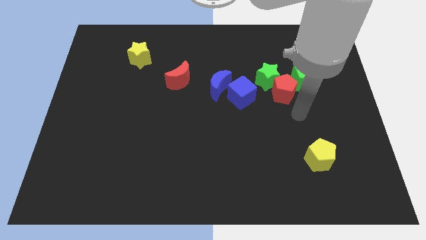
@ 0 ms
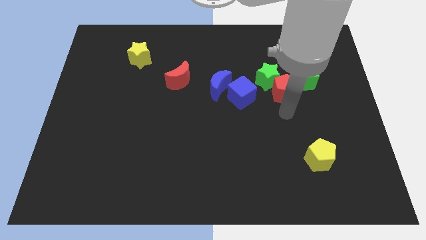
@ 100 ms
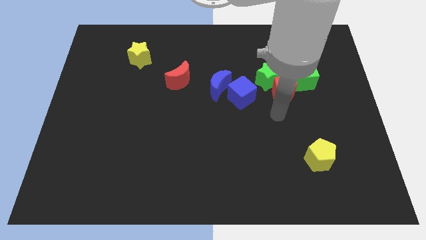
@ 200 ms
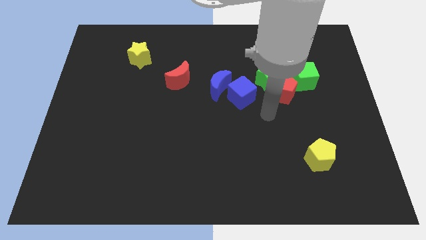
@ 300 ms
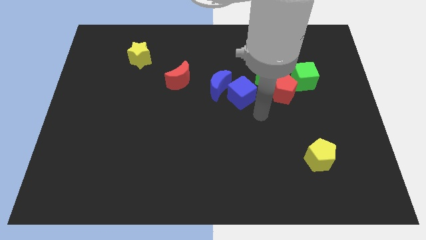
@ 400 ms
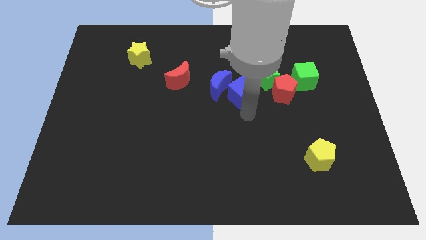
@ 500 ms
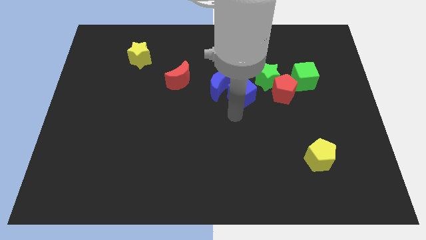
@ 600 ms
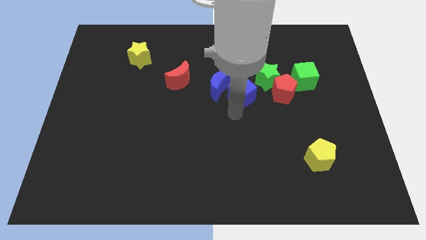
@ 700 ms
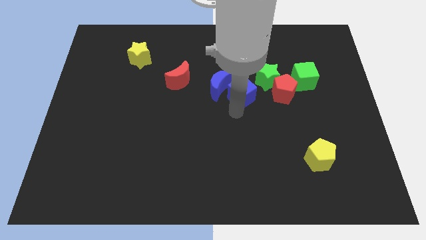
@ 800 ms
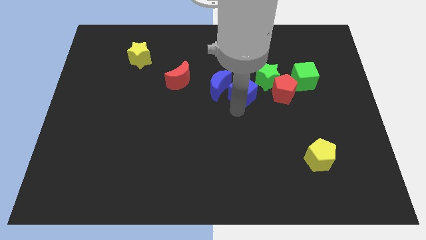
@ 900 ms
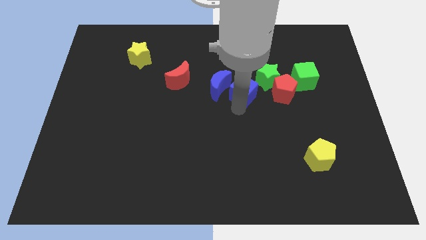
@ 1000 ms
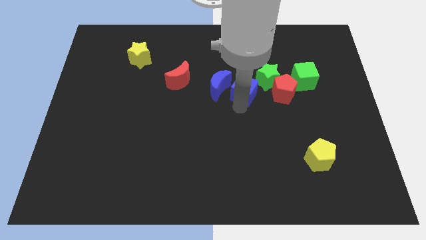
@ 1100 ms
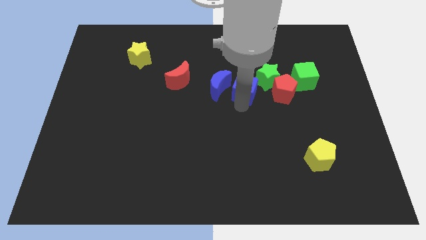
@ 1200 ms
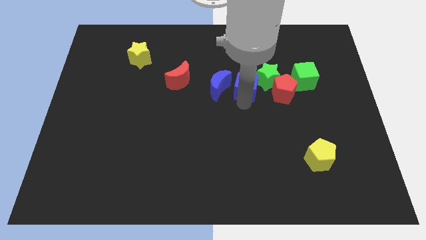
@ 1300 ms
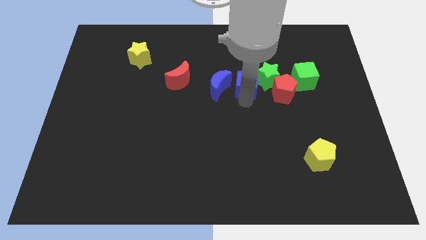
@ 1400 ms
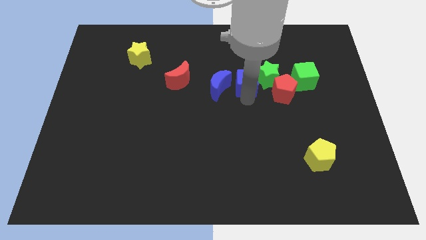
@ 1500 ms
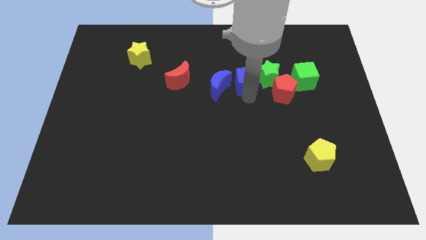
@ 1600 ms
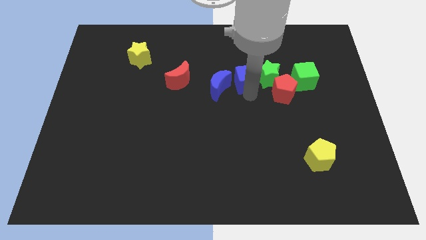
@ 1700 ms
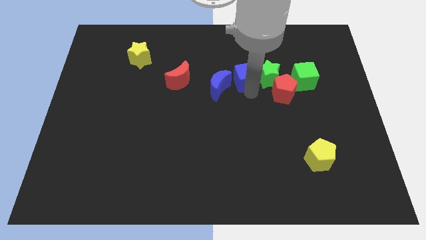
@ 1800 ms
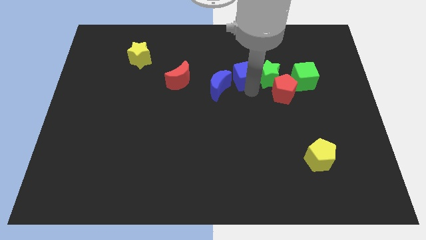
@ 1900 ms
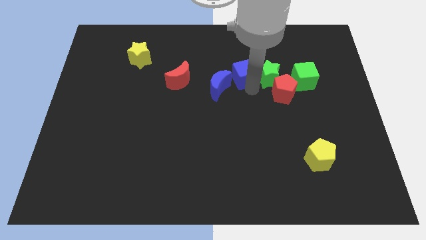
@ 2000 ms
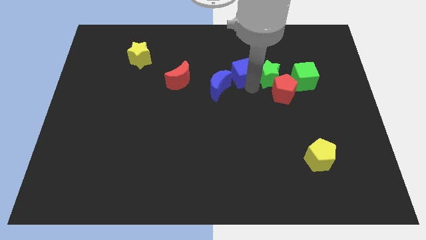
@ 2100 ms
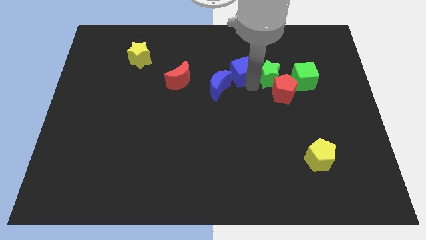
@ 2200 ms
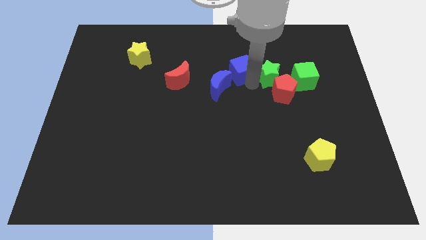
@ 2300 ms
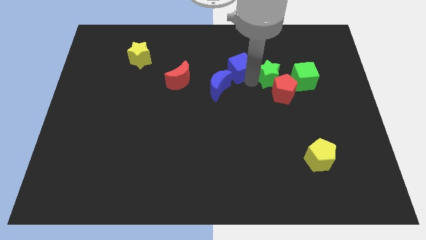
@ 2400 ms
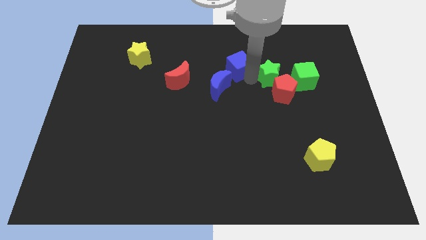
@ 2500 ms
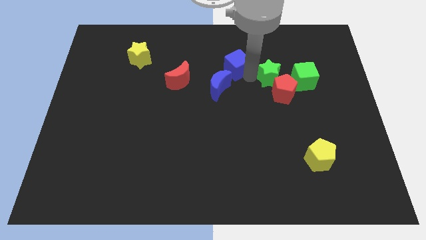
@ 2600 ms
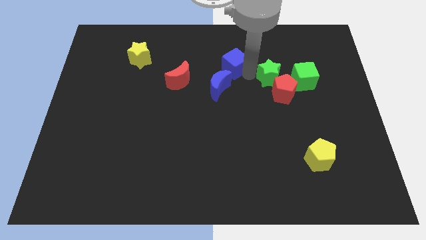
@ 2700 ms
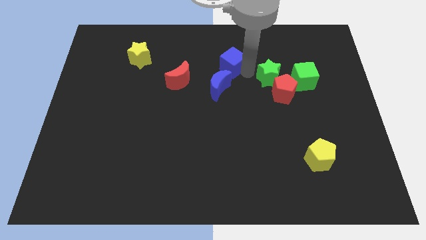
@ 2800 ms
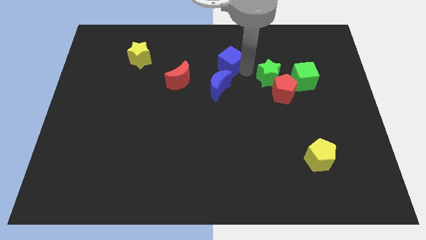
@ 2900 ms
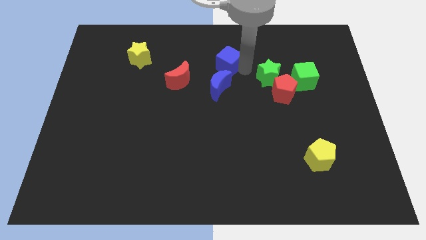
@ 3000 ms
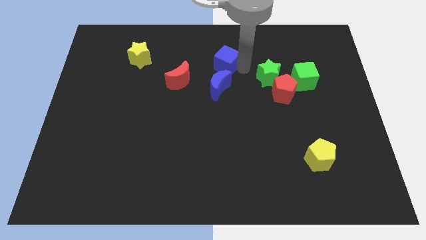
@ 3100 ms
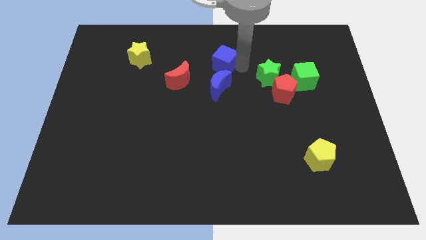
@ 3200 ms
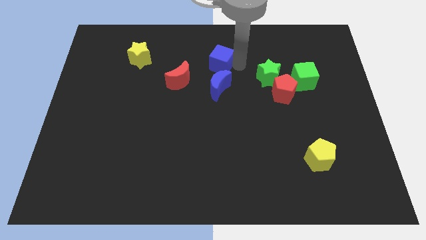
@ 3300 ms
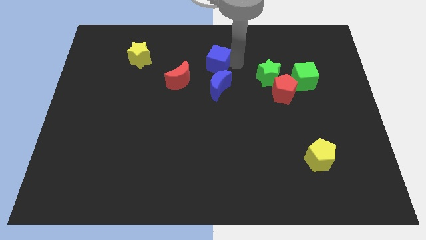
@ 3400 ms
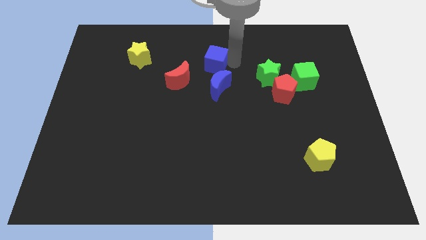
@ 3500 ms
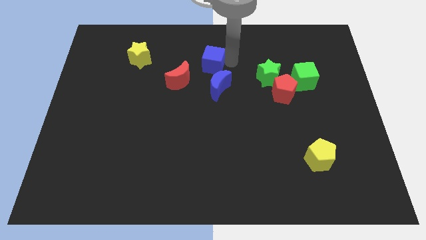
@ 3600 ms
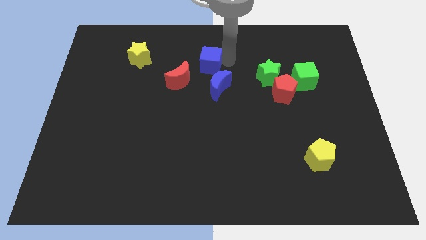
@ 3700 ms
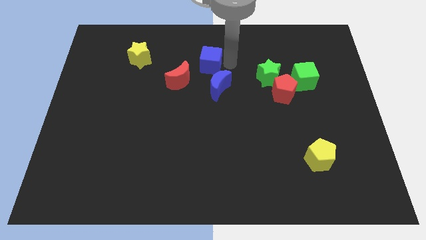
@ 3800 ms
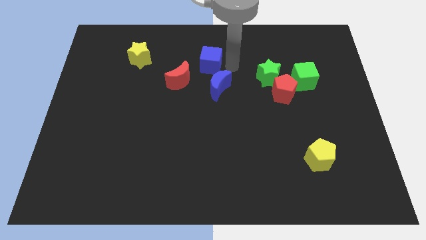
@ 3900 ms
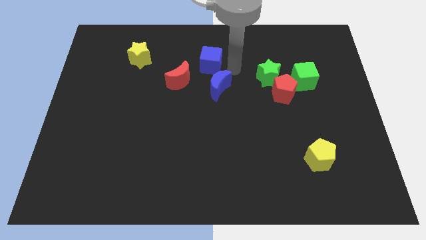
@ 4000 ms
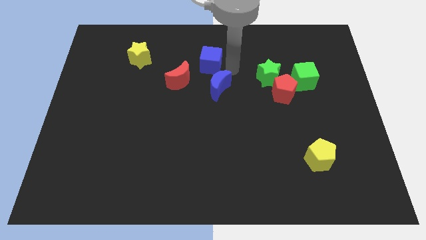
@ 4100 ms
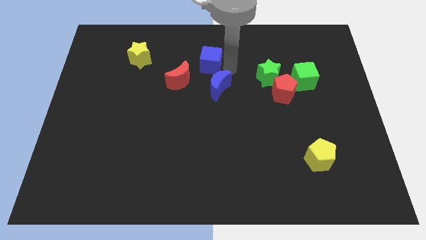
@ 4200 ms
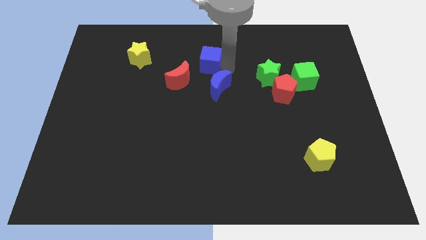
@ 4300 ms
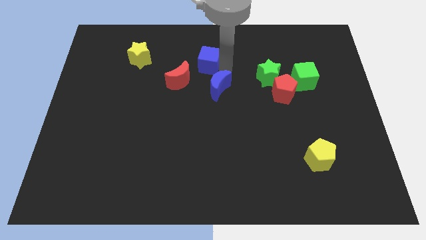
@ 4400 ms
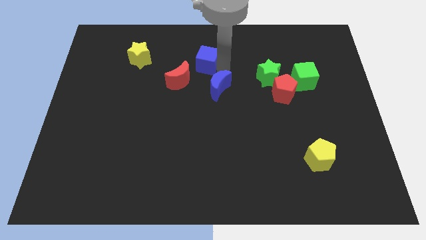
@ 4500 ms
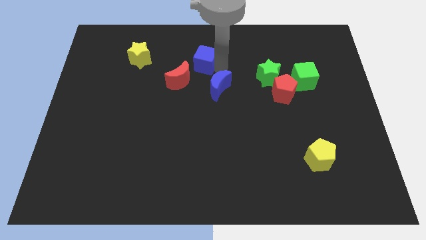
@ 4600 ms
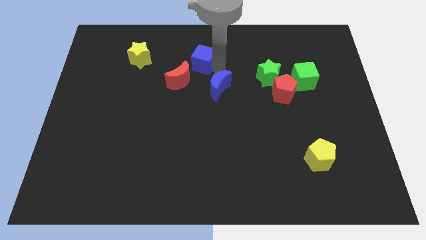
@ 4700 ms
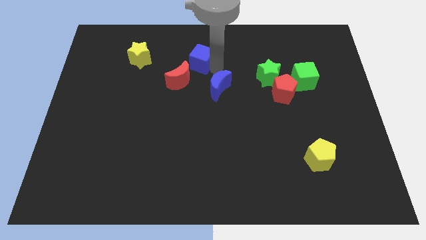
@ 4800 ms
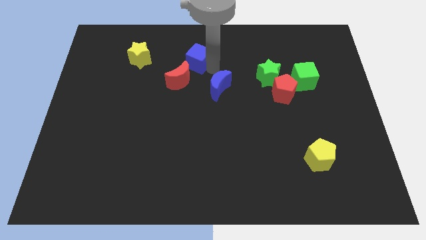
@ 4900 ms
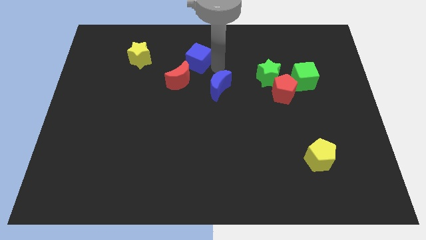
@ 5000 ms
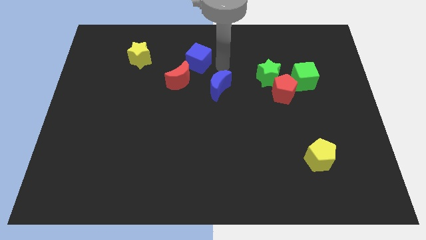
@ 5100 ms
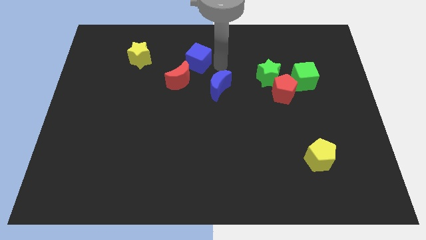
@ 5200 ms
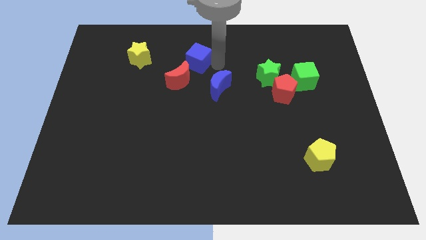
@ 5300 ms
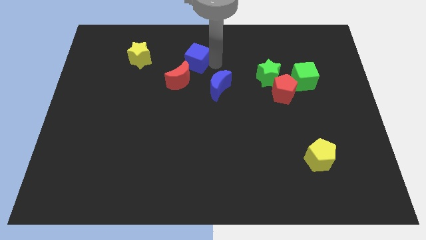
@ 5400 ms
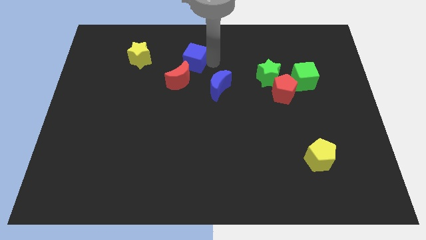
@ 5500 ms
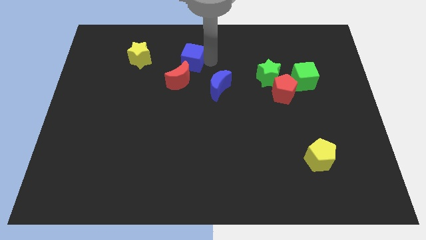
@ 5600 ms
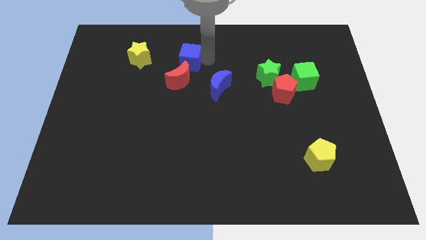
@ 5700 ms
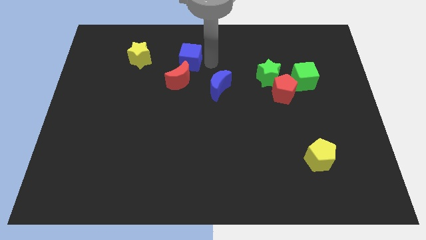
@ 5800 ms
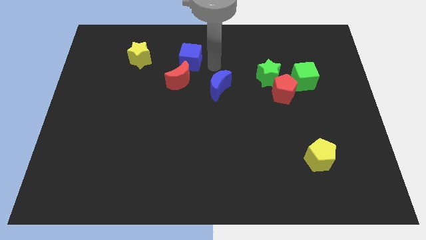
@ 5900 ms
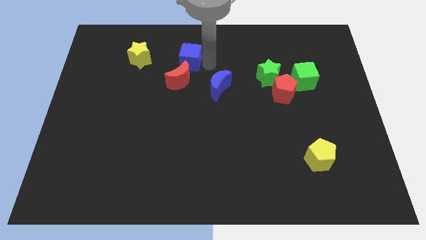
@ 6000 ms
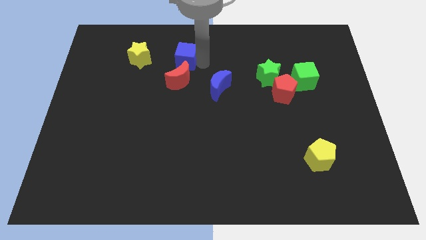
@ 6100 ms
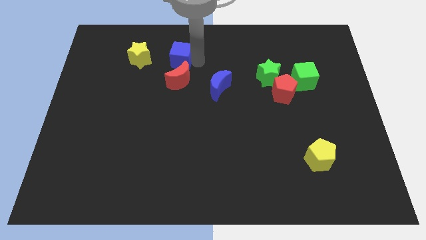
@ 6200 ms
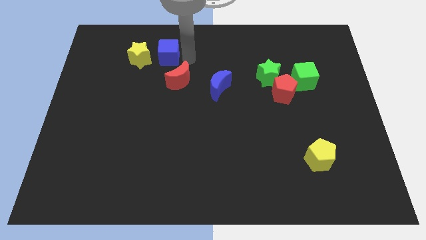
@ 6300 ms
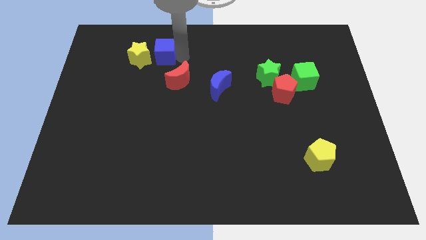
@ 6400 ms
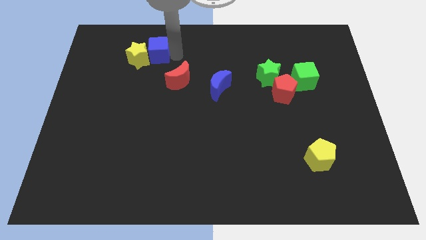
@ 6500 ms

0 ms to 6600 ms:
push the blue cube to the yellow star

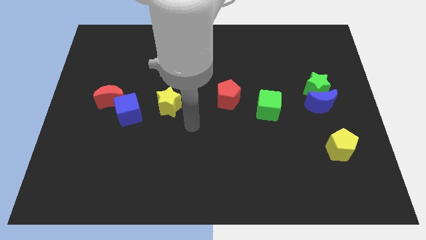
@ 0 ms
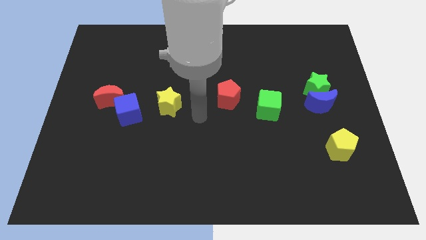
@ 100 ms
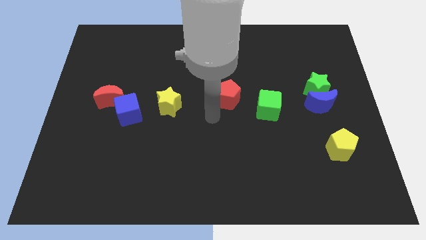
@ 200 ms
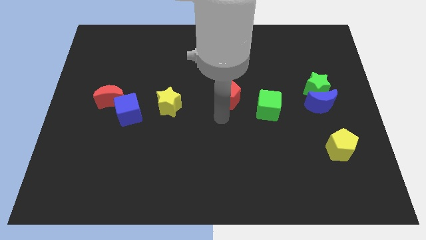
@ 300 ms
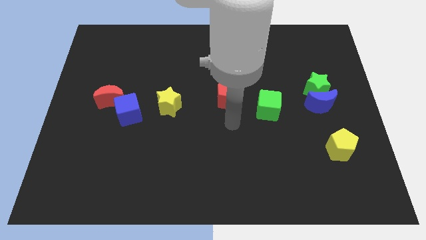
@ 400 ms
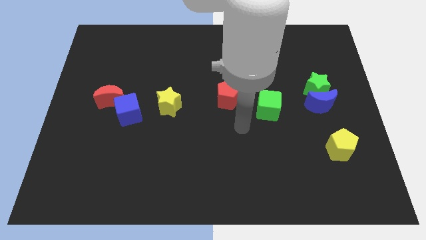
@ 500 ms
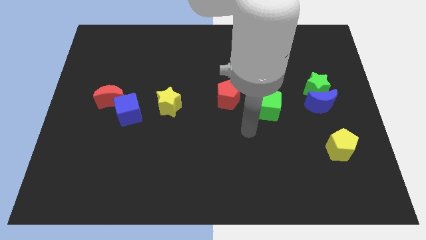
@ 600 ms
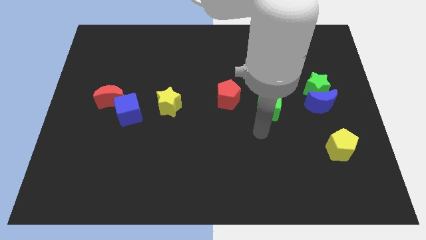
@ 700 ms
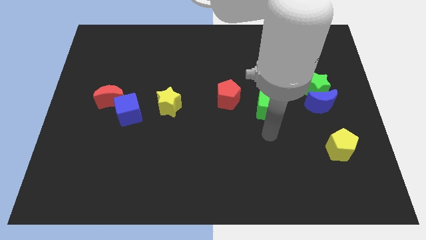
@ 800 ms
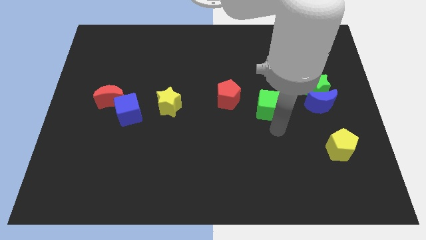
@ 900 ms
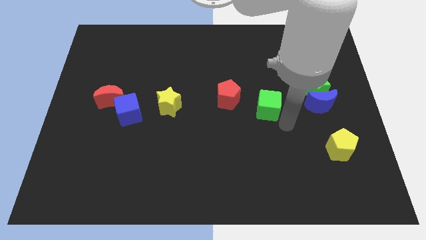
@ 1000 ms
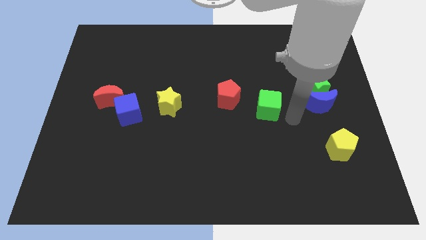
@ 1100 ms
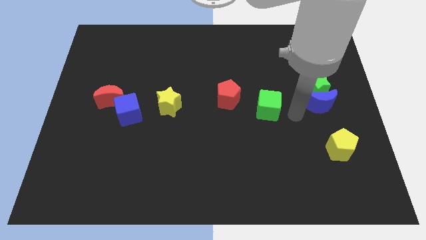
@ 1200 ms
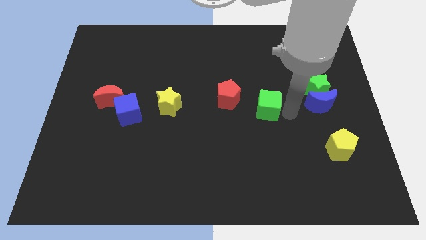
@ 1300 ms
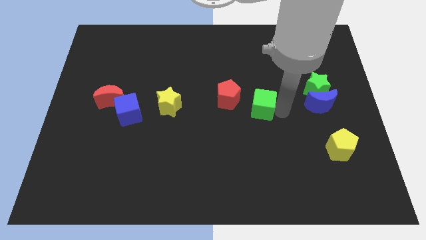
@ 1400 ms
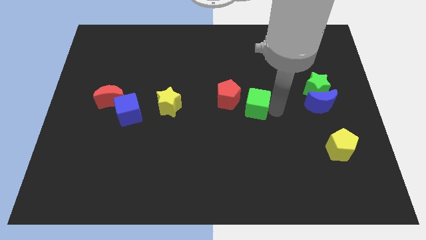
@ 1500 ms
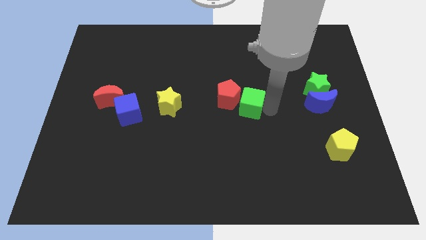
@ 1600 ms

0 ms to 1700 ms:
push the green cube towards the red pentagon
